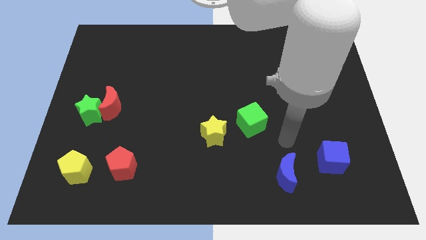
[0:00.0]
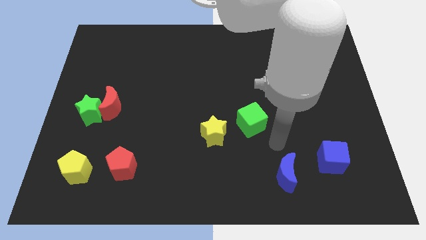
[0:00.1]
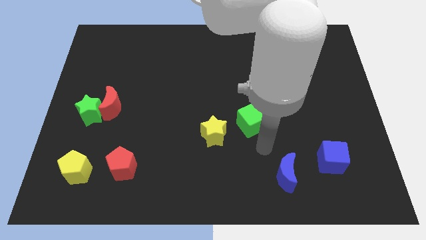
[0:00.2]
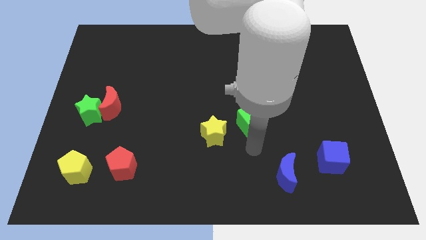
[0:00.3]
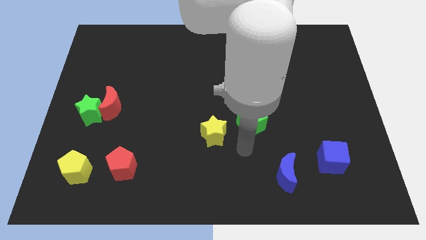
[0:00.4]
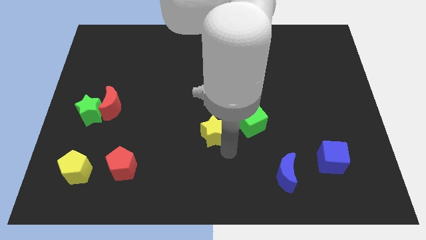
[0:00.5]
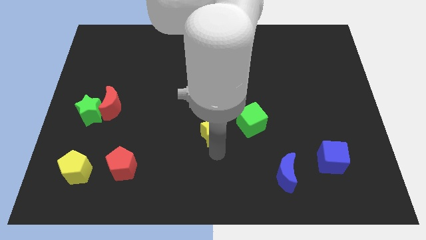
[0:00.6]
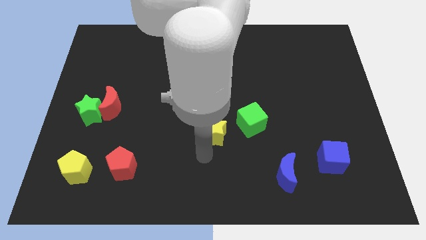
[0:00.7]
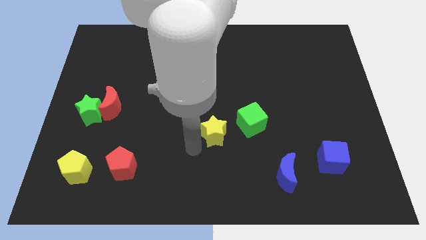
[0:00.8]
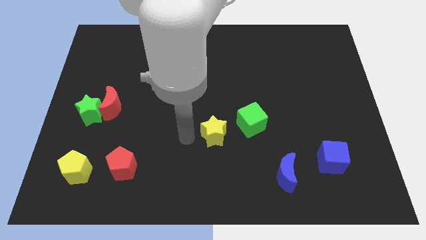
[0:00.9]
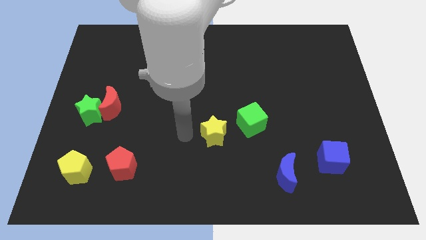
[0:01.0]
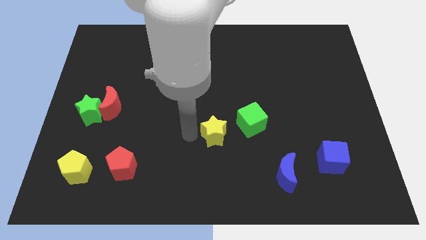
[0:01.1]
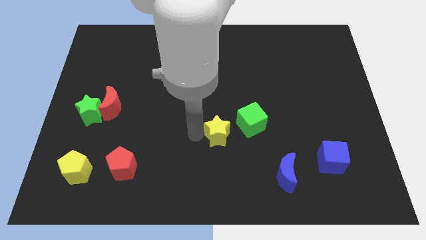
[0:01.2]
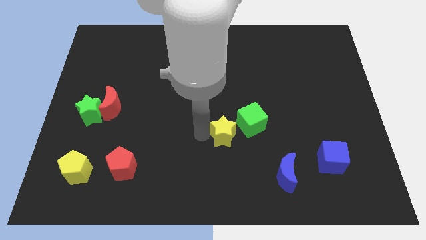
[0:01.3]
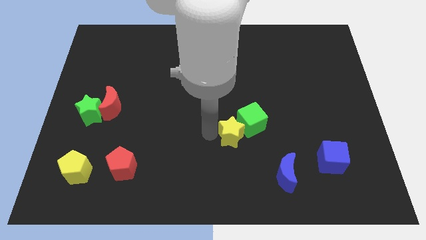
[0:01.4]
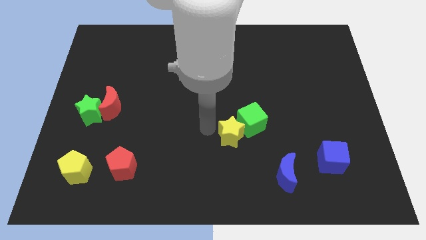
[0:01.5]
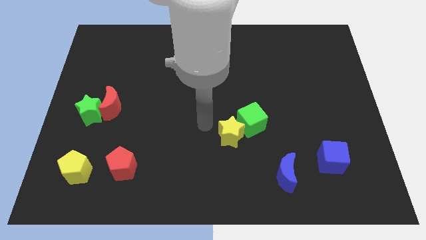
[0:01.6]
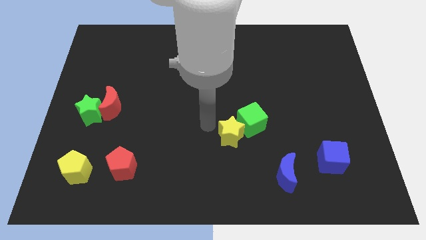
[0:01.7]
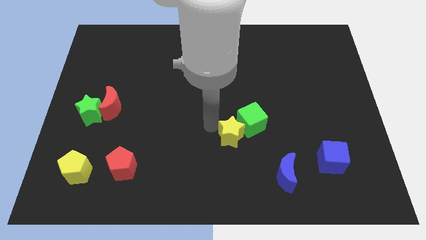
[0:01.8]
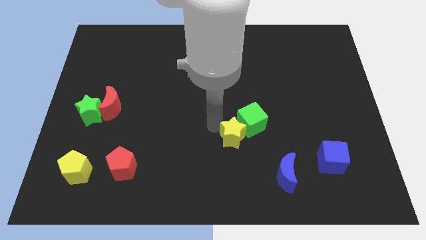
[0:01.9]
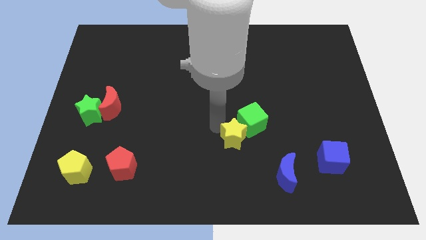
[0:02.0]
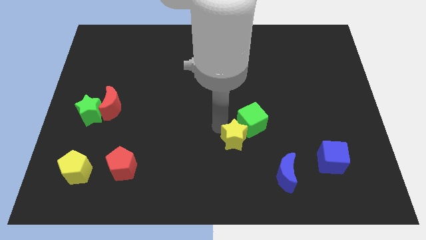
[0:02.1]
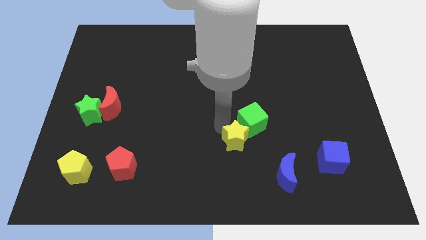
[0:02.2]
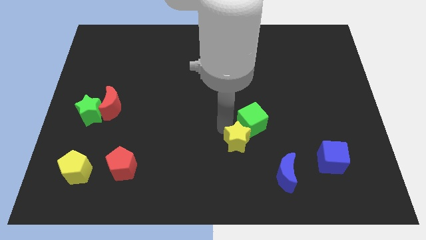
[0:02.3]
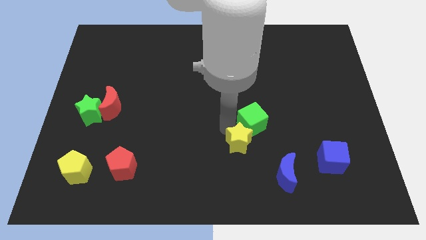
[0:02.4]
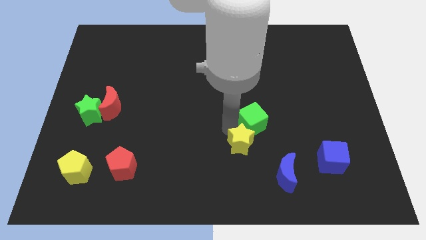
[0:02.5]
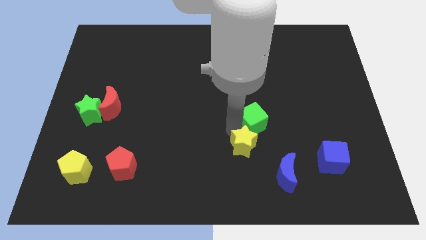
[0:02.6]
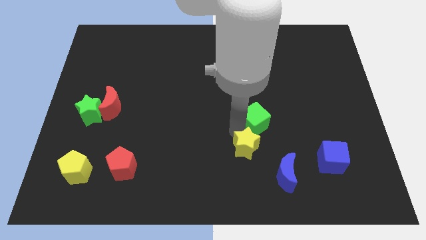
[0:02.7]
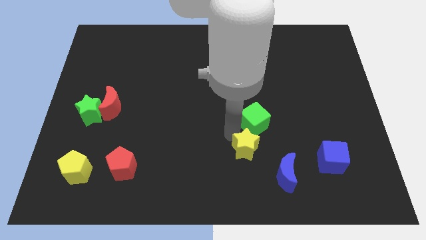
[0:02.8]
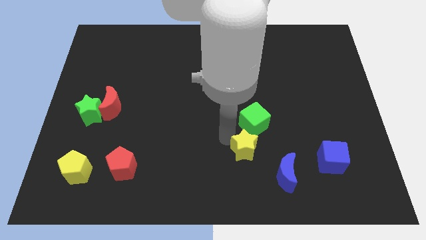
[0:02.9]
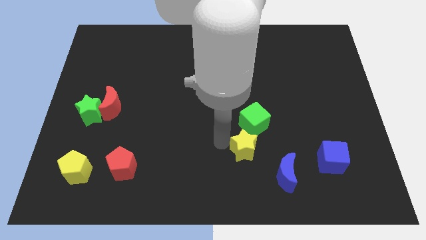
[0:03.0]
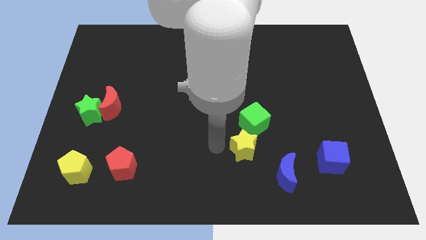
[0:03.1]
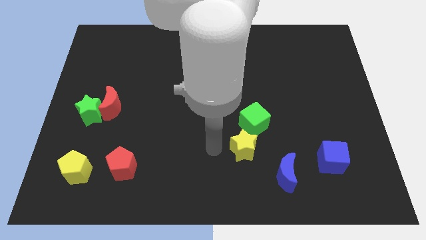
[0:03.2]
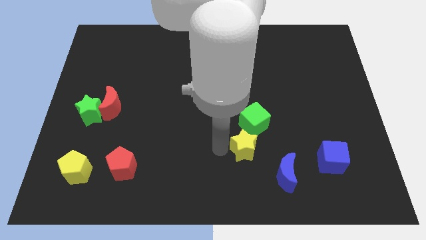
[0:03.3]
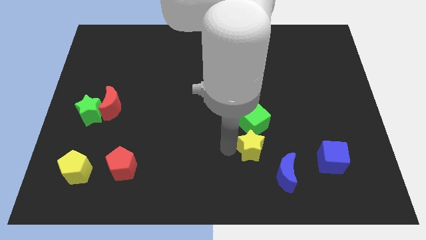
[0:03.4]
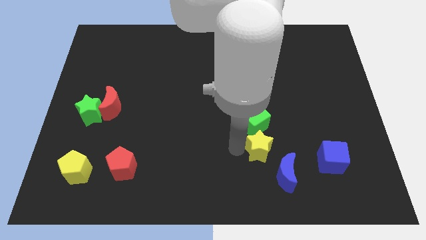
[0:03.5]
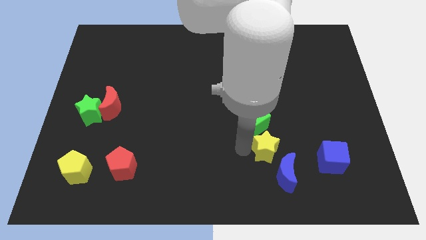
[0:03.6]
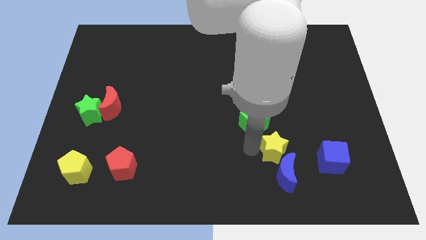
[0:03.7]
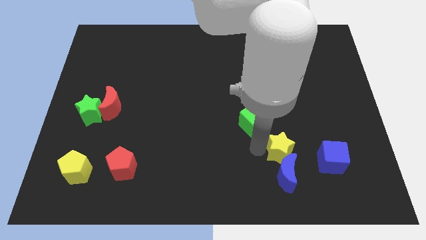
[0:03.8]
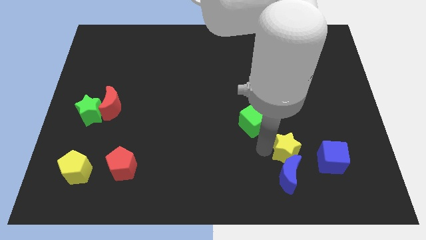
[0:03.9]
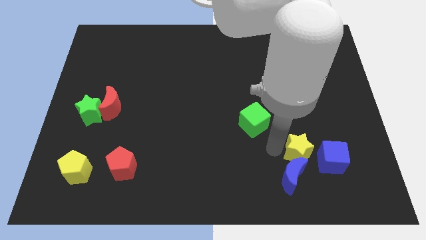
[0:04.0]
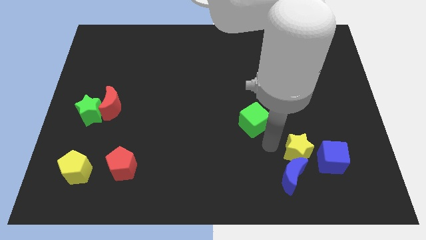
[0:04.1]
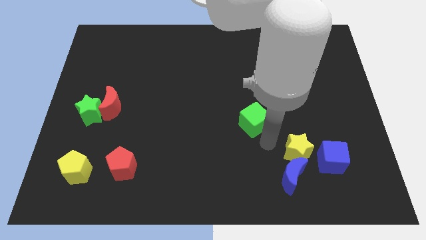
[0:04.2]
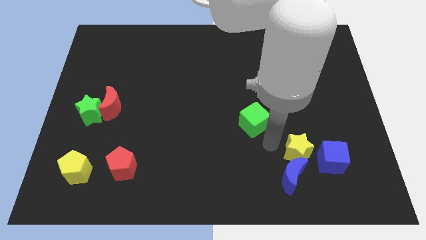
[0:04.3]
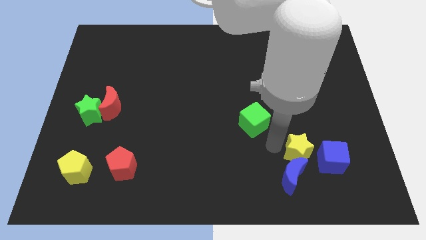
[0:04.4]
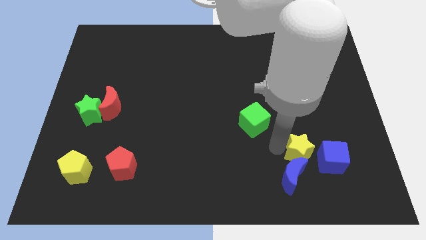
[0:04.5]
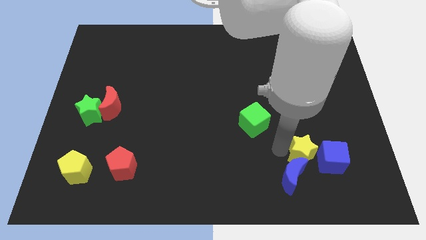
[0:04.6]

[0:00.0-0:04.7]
move the yellow star to the blue cube

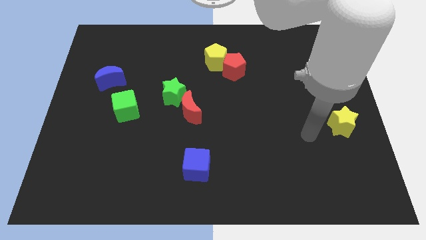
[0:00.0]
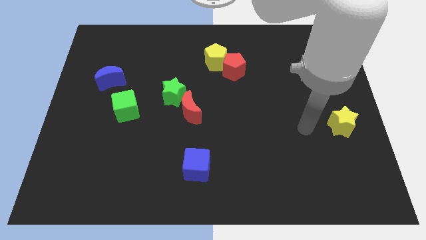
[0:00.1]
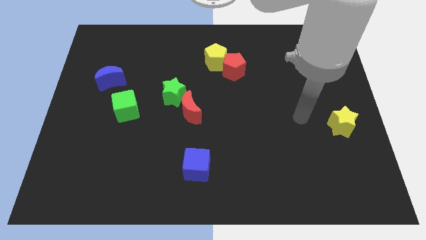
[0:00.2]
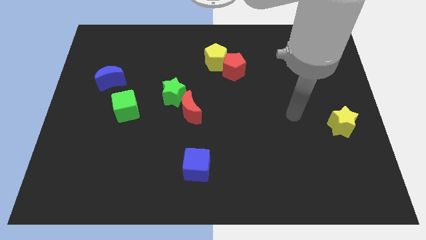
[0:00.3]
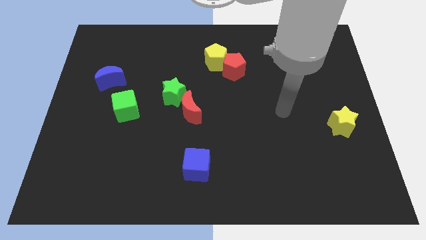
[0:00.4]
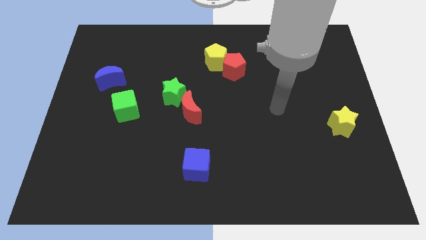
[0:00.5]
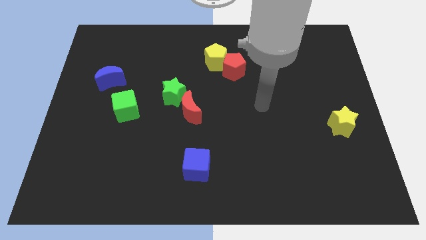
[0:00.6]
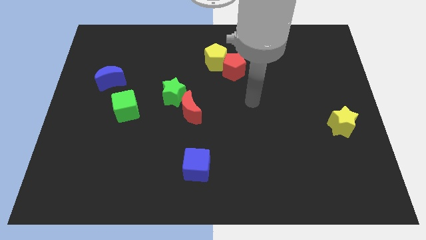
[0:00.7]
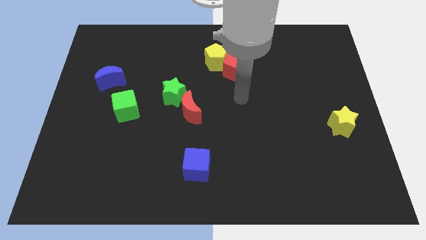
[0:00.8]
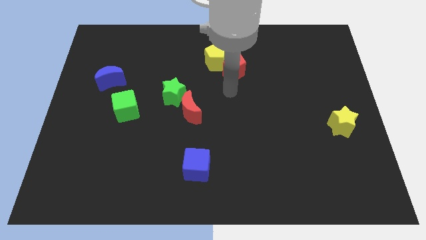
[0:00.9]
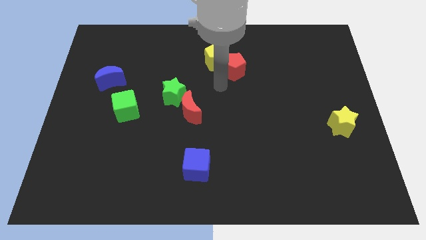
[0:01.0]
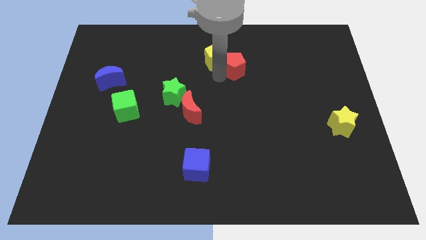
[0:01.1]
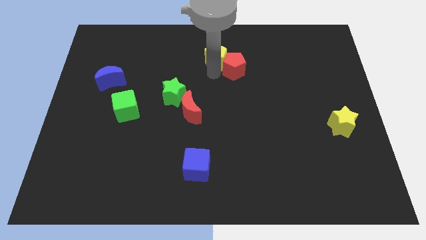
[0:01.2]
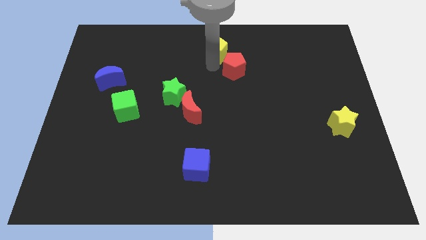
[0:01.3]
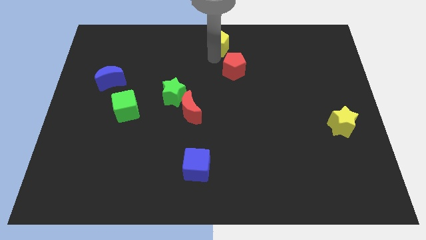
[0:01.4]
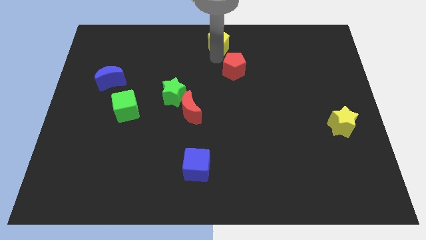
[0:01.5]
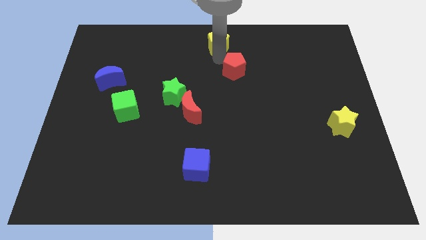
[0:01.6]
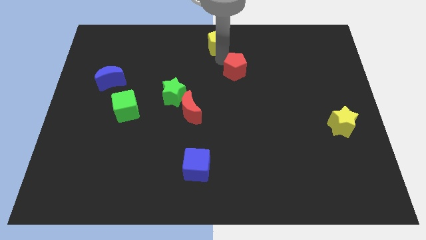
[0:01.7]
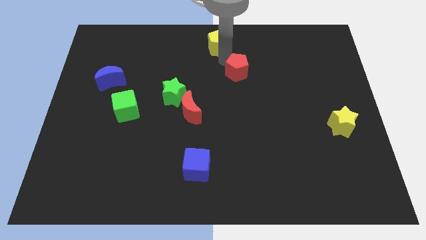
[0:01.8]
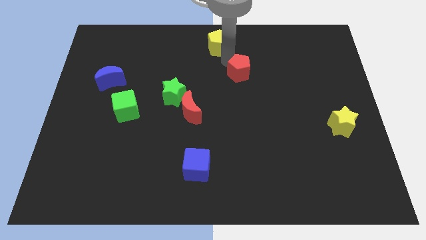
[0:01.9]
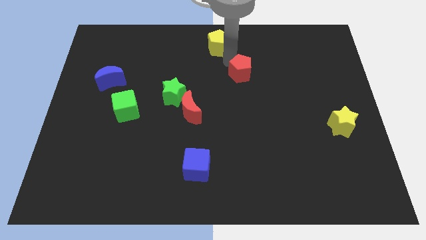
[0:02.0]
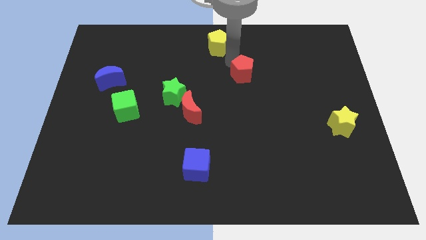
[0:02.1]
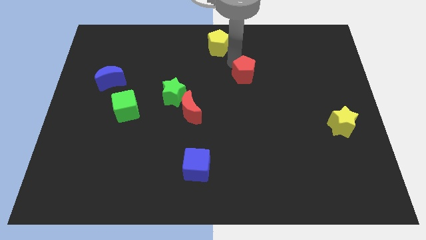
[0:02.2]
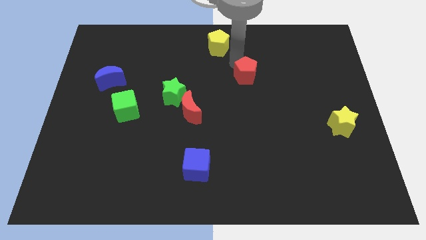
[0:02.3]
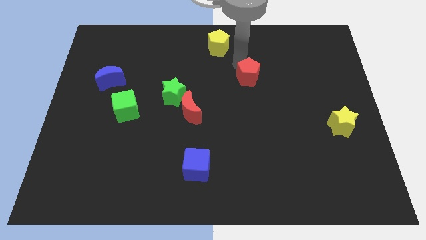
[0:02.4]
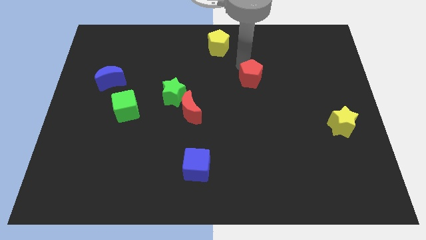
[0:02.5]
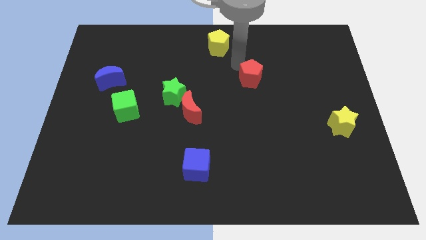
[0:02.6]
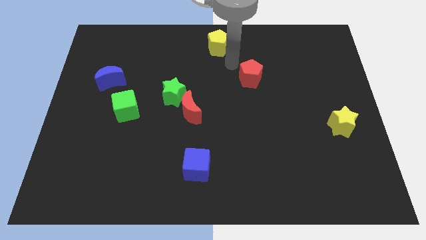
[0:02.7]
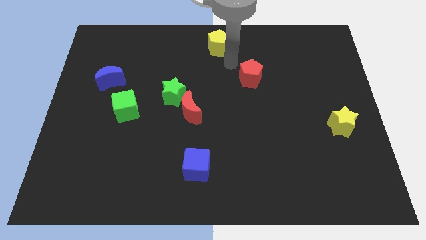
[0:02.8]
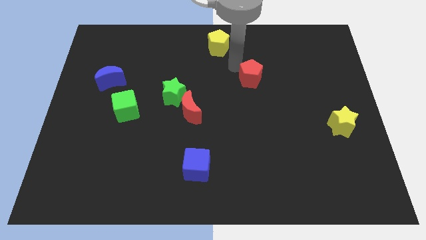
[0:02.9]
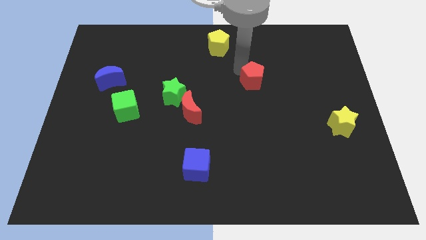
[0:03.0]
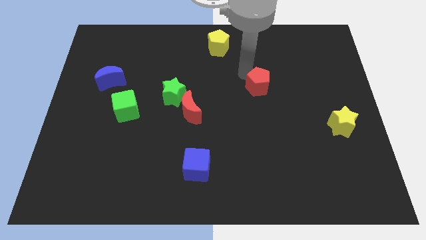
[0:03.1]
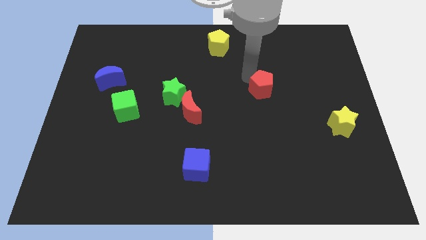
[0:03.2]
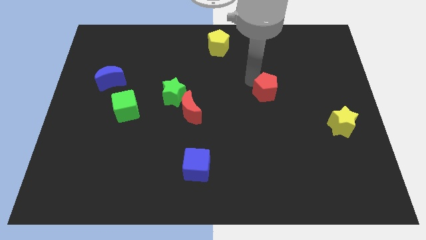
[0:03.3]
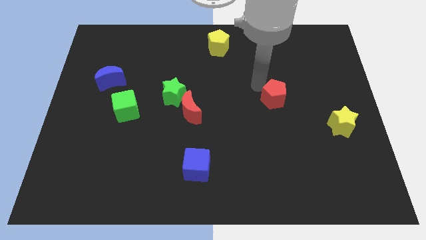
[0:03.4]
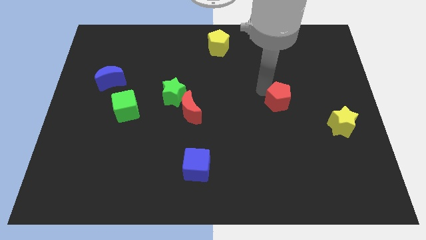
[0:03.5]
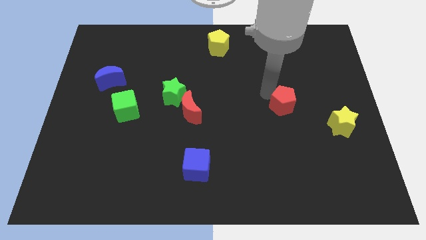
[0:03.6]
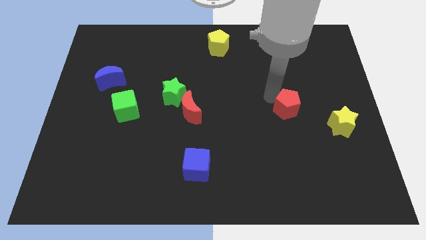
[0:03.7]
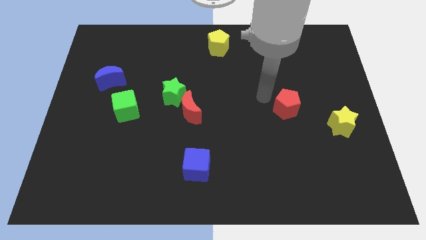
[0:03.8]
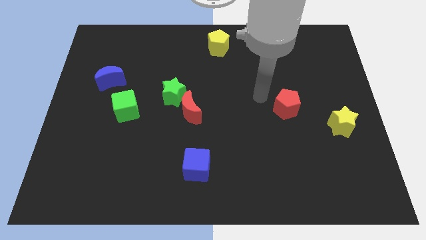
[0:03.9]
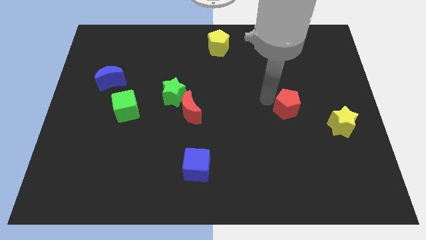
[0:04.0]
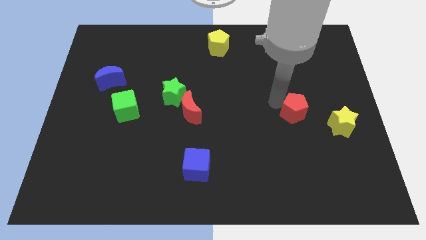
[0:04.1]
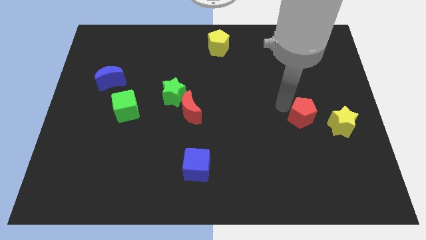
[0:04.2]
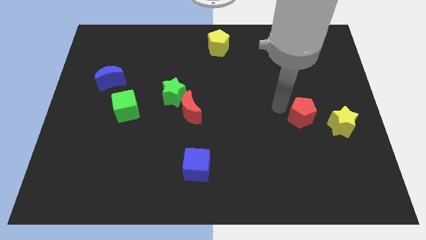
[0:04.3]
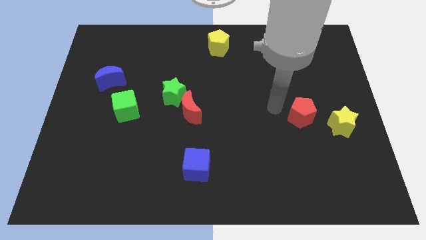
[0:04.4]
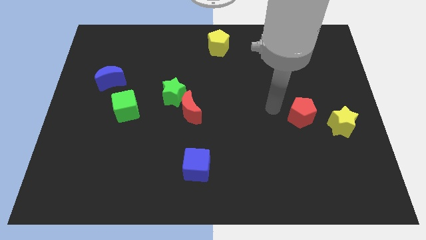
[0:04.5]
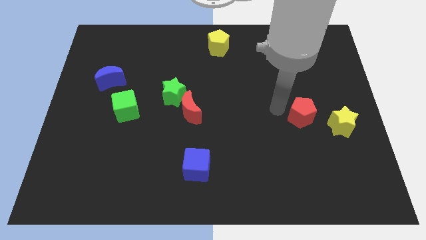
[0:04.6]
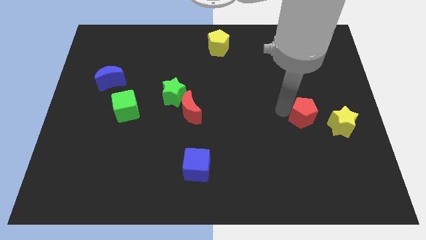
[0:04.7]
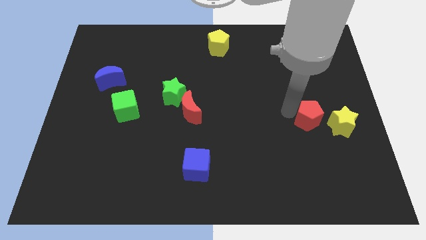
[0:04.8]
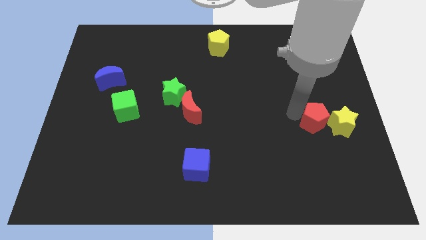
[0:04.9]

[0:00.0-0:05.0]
put the red pentagon next to the yellow star
